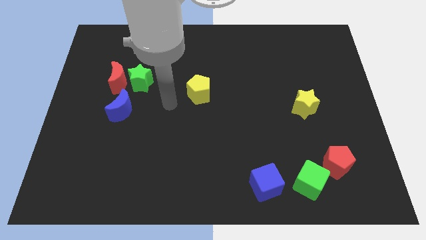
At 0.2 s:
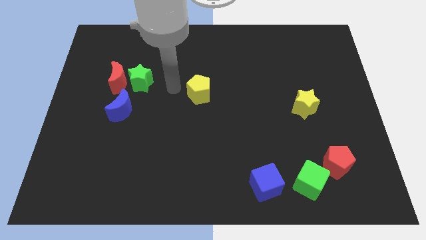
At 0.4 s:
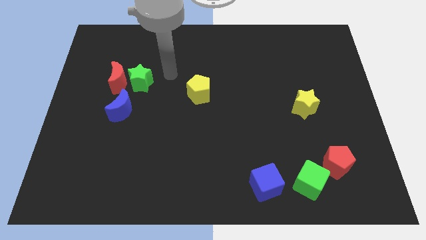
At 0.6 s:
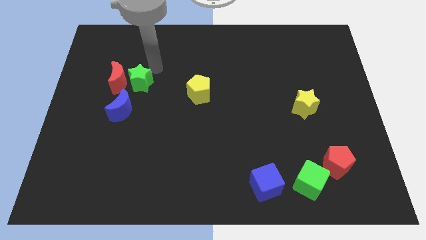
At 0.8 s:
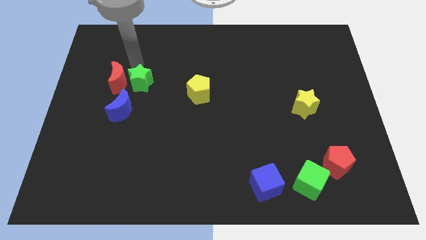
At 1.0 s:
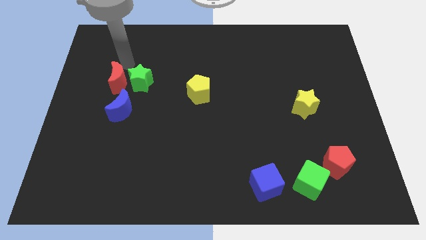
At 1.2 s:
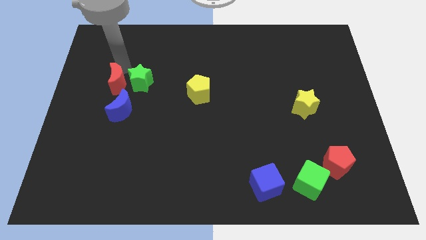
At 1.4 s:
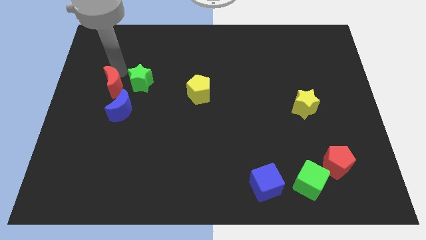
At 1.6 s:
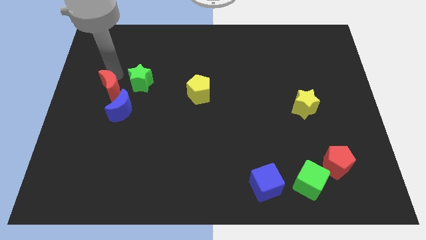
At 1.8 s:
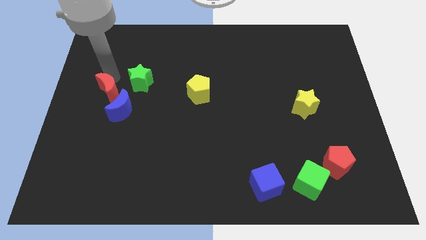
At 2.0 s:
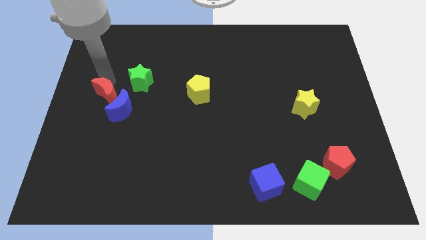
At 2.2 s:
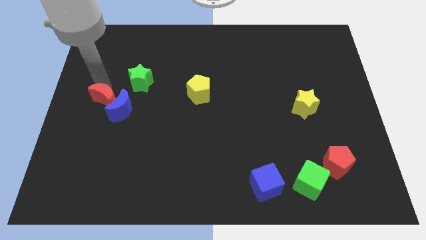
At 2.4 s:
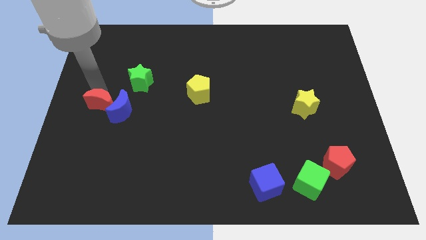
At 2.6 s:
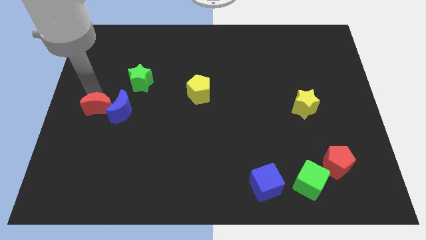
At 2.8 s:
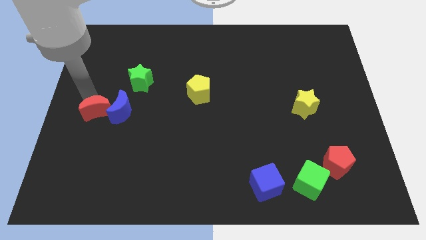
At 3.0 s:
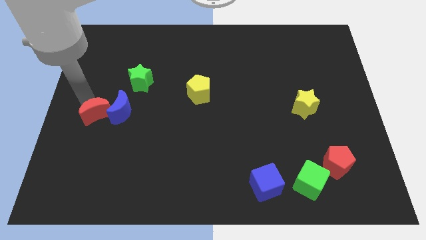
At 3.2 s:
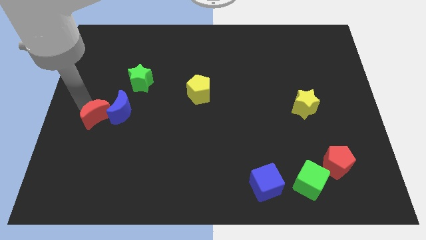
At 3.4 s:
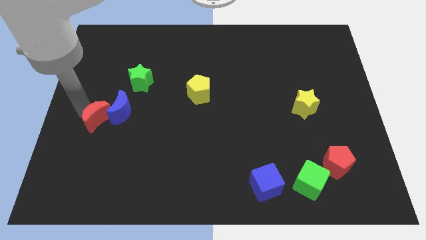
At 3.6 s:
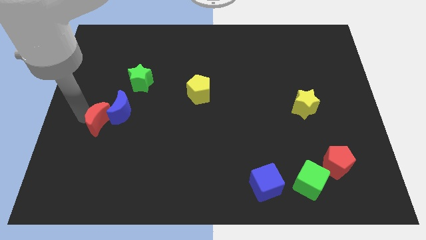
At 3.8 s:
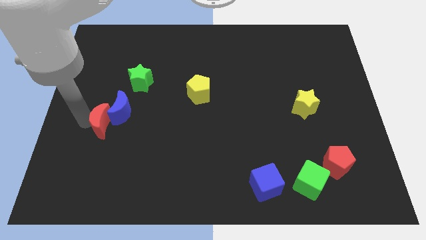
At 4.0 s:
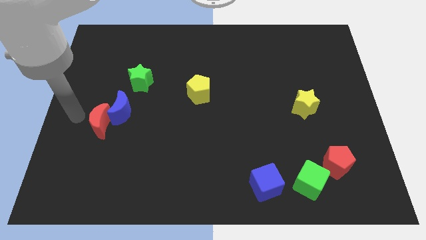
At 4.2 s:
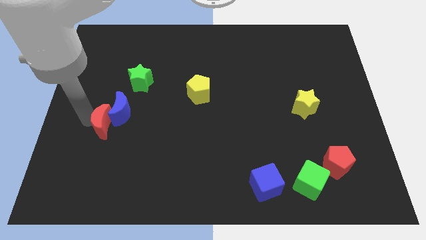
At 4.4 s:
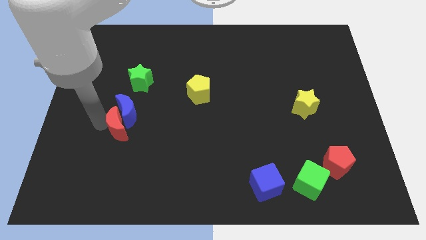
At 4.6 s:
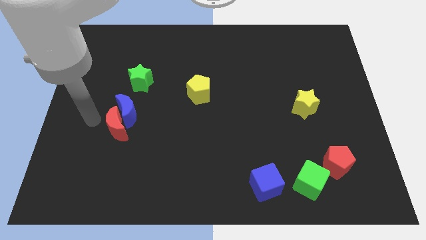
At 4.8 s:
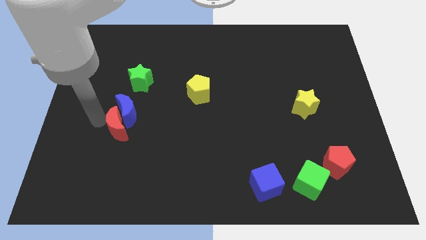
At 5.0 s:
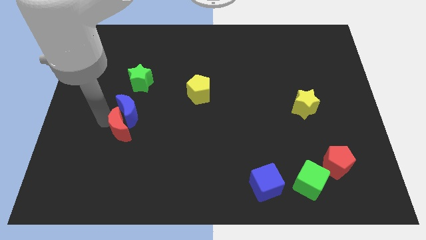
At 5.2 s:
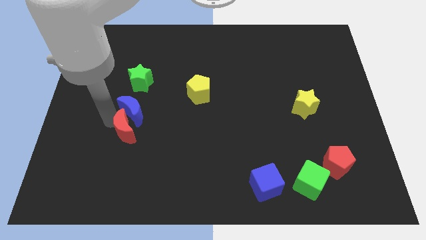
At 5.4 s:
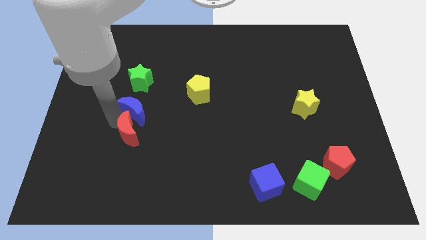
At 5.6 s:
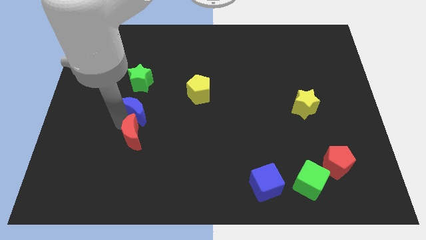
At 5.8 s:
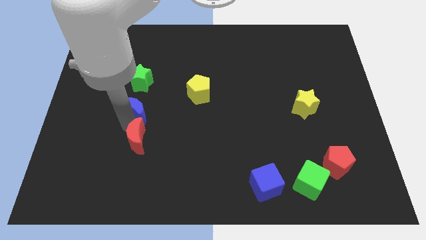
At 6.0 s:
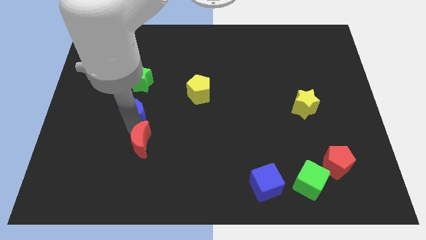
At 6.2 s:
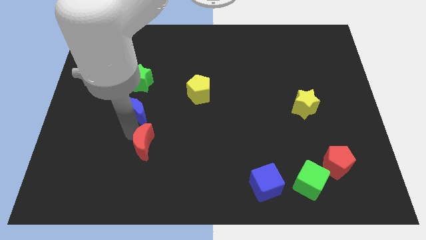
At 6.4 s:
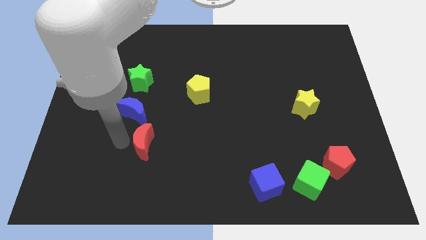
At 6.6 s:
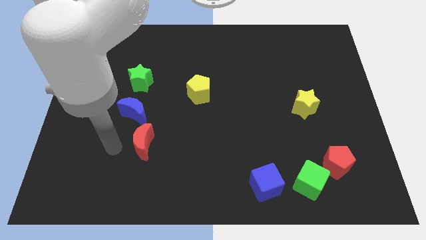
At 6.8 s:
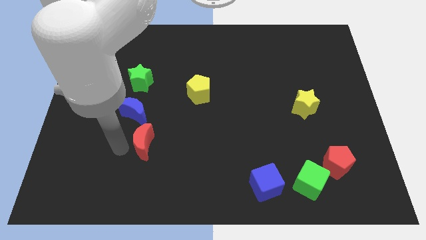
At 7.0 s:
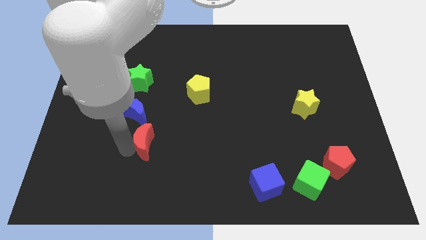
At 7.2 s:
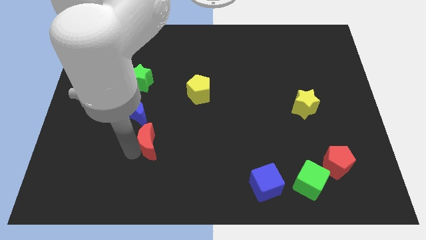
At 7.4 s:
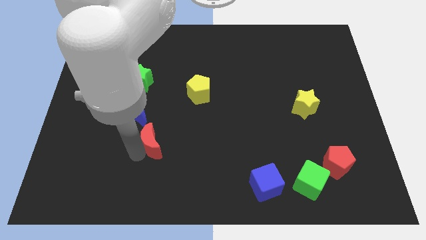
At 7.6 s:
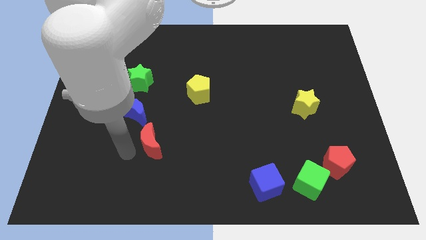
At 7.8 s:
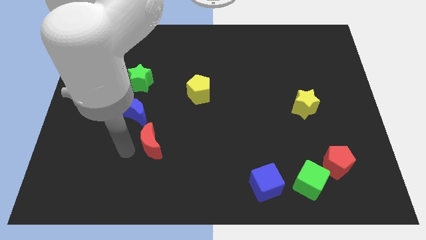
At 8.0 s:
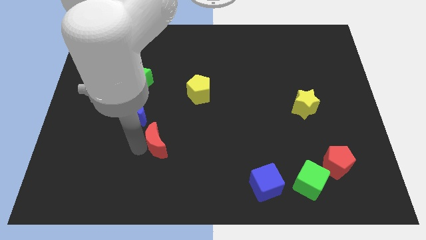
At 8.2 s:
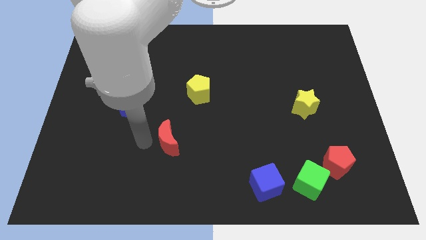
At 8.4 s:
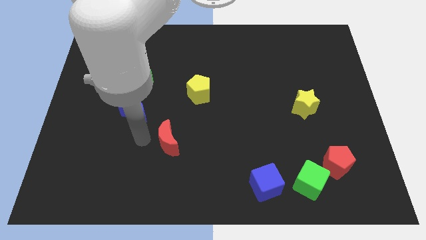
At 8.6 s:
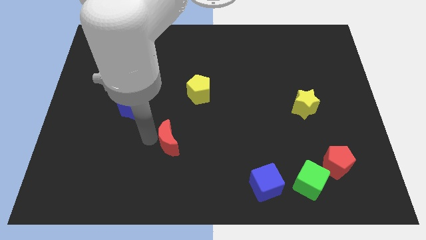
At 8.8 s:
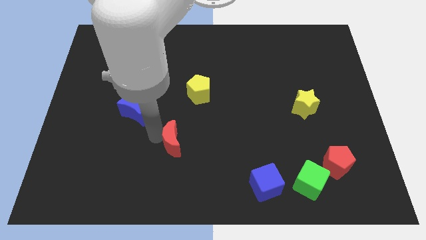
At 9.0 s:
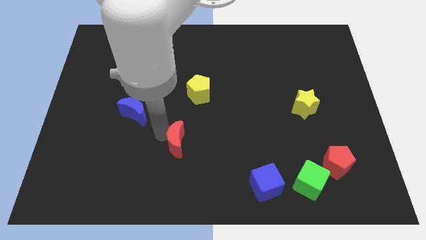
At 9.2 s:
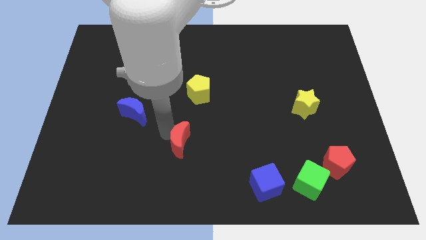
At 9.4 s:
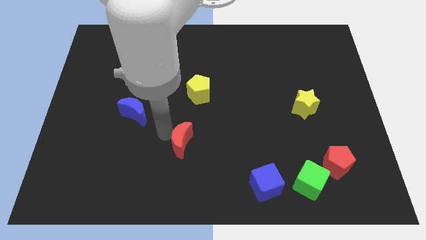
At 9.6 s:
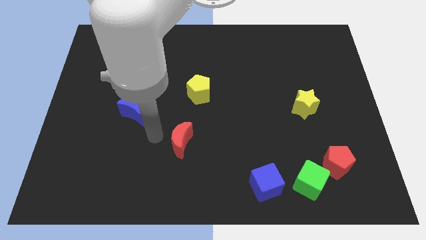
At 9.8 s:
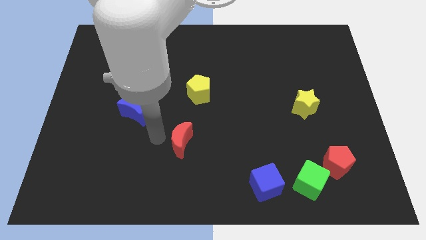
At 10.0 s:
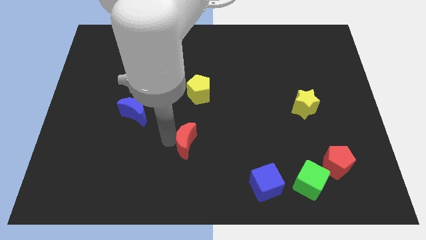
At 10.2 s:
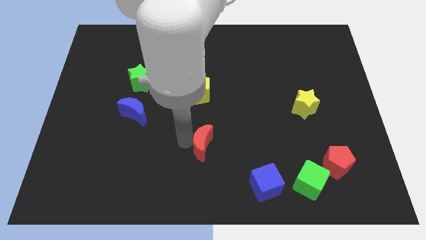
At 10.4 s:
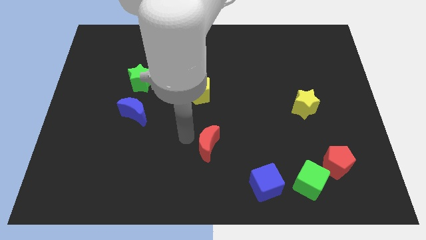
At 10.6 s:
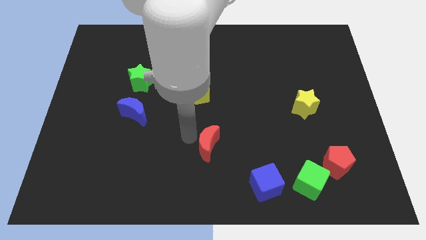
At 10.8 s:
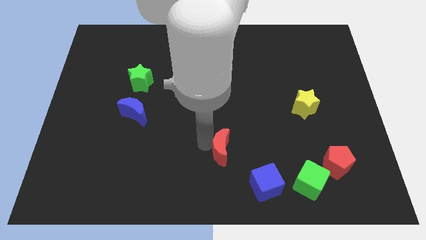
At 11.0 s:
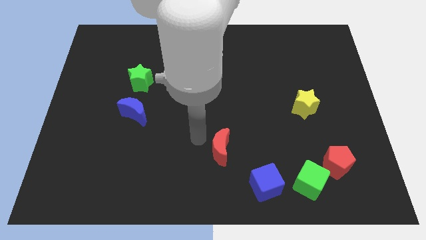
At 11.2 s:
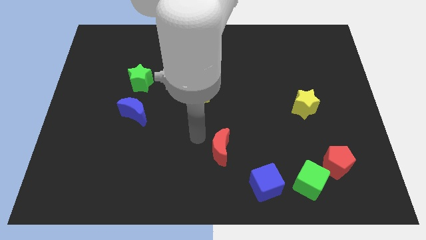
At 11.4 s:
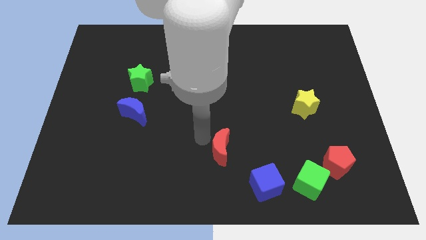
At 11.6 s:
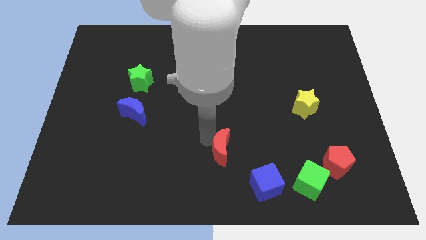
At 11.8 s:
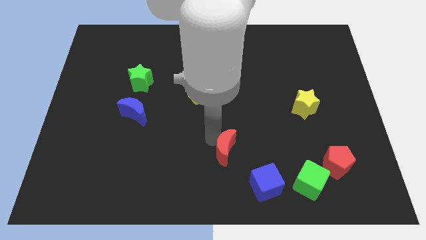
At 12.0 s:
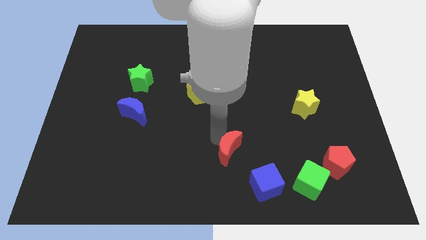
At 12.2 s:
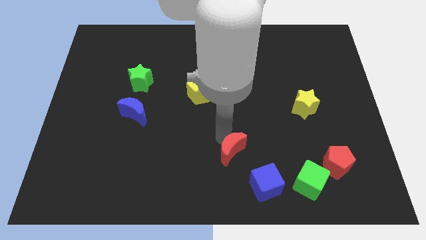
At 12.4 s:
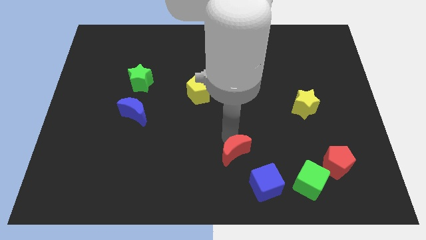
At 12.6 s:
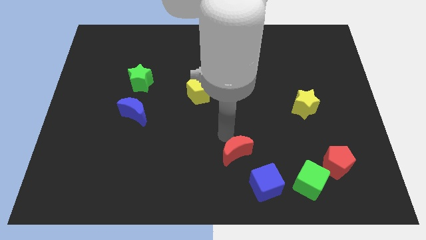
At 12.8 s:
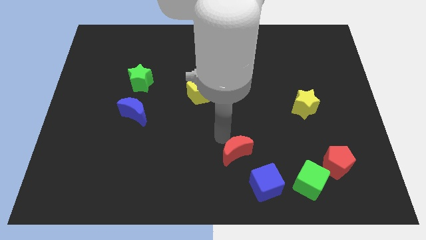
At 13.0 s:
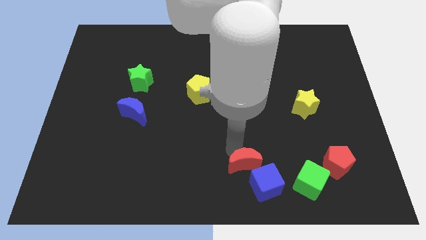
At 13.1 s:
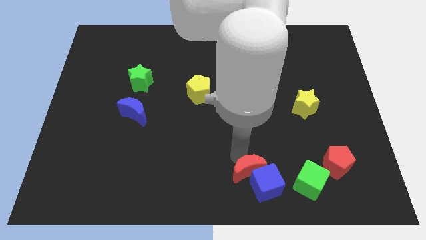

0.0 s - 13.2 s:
put the red moon next to the blue cube

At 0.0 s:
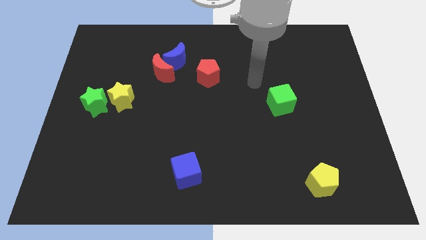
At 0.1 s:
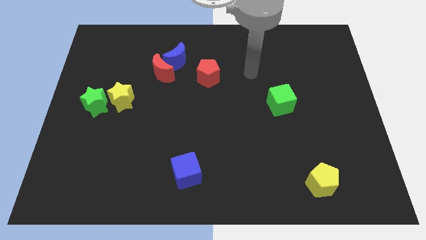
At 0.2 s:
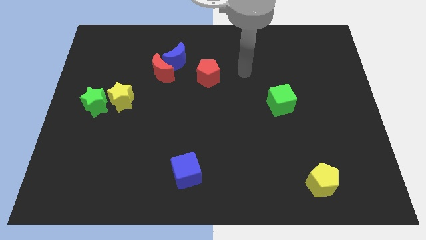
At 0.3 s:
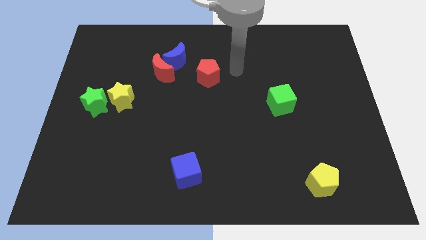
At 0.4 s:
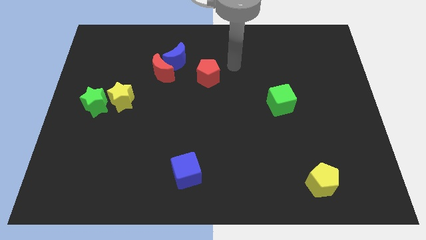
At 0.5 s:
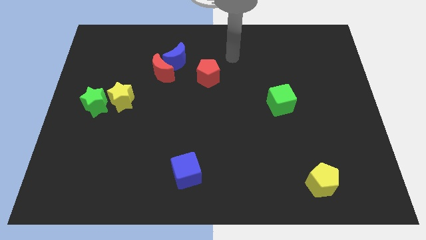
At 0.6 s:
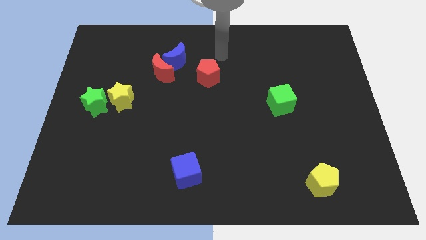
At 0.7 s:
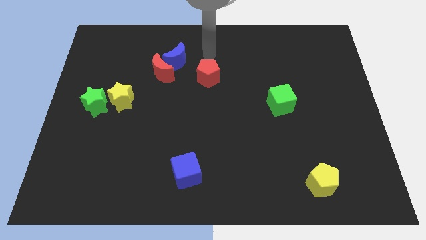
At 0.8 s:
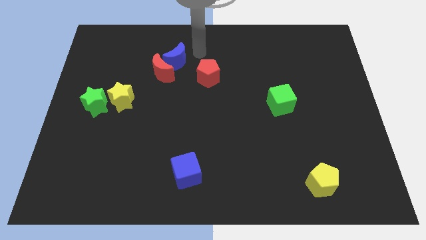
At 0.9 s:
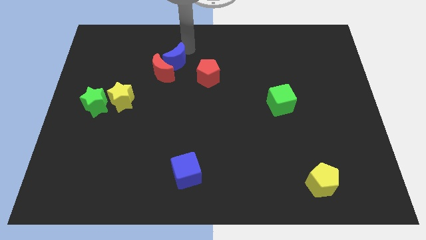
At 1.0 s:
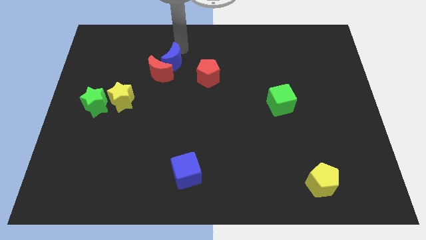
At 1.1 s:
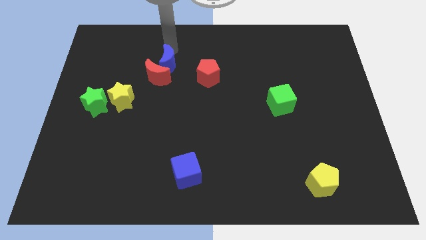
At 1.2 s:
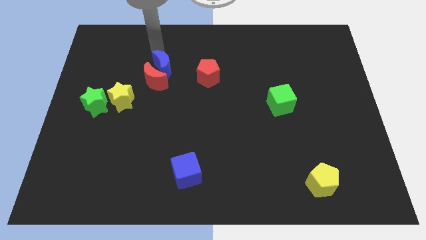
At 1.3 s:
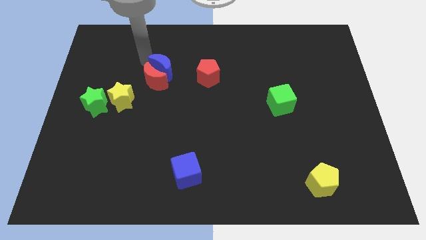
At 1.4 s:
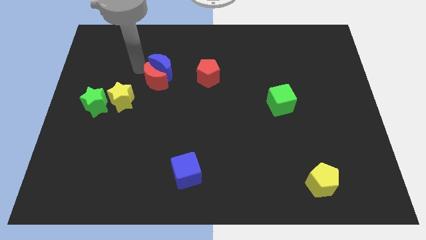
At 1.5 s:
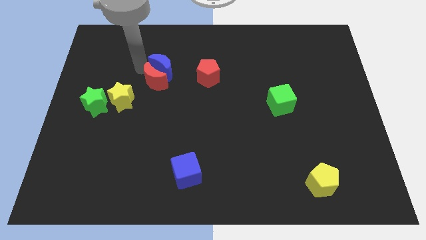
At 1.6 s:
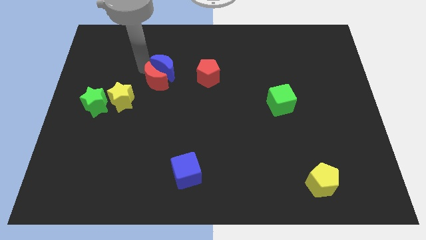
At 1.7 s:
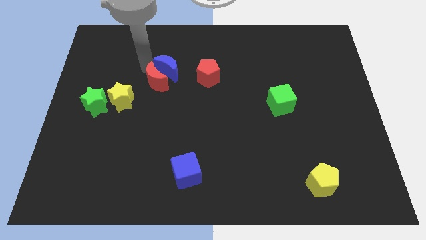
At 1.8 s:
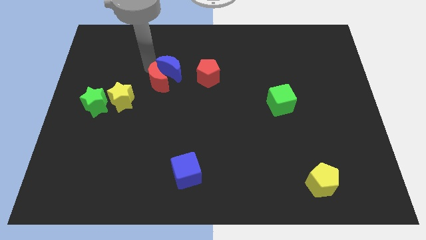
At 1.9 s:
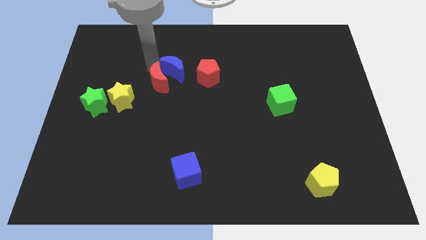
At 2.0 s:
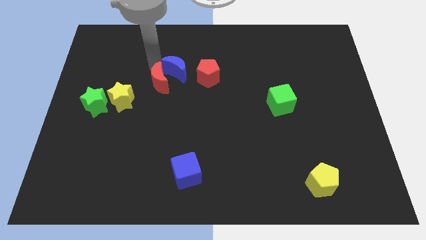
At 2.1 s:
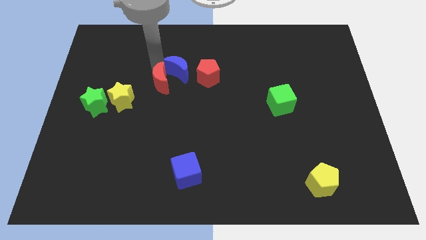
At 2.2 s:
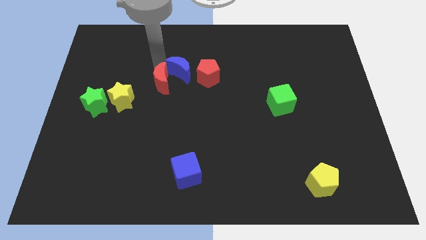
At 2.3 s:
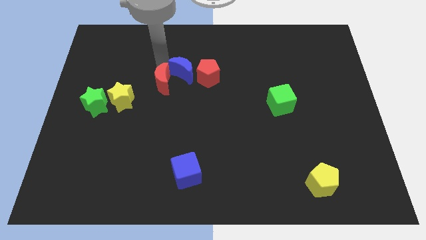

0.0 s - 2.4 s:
push the blue moon close to the red pentagon
